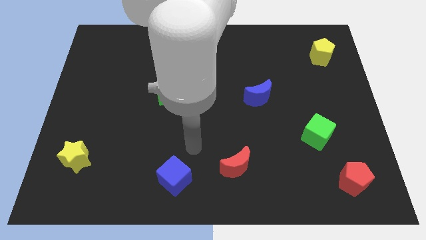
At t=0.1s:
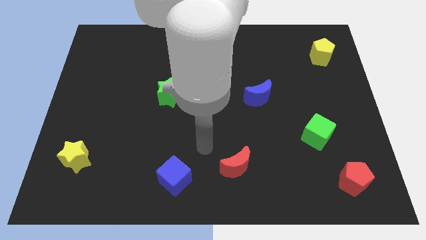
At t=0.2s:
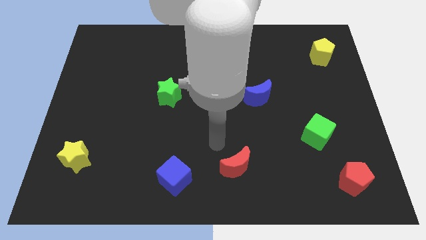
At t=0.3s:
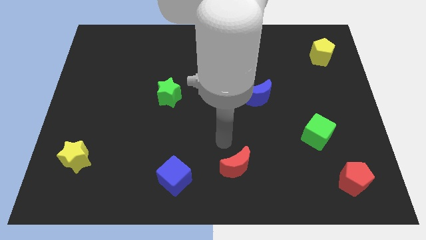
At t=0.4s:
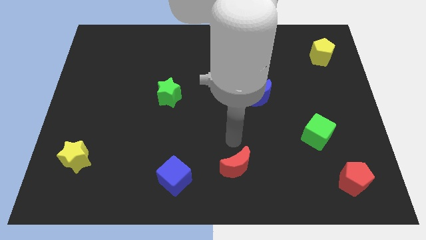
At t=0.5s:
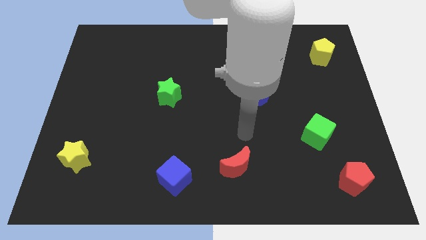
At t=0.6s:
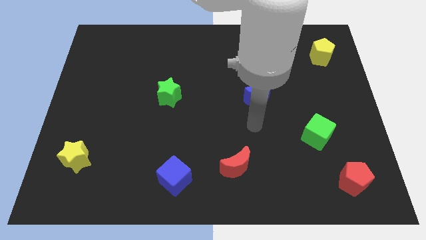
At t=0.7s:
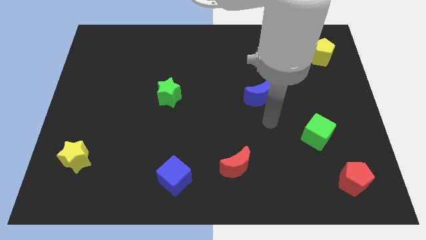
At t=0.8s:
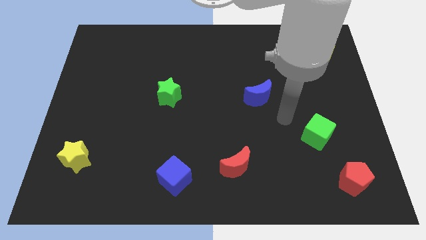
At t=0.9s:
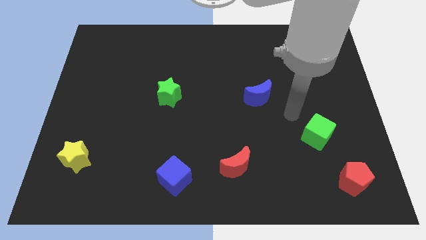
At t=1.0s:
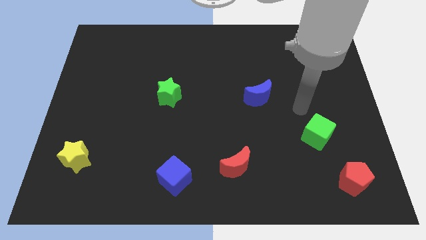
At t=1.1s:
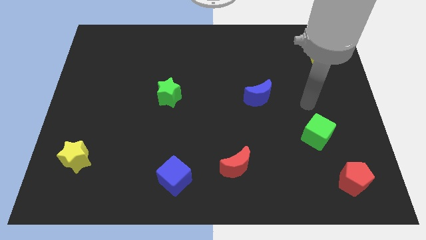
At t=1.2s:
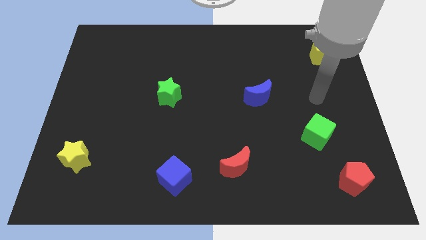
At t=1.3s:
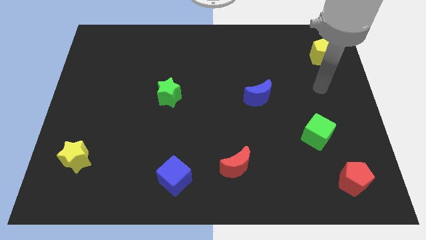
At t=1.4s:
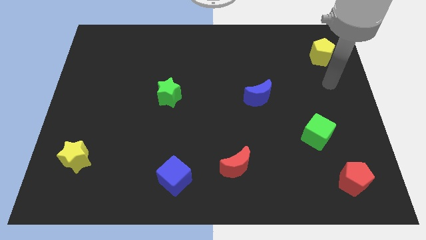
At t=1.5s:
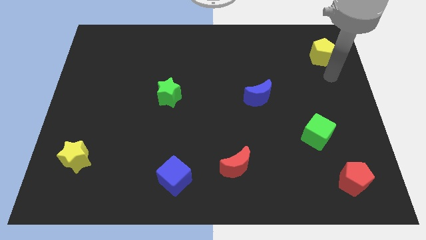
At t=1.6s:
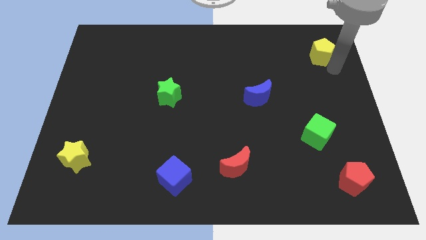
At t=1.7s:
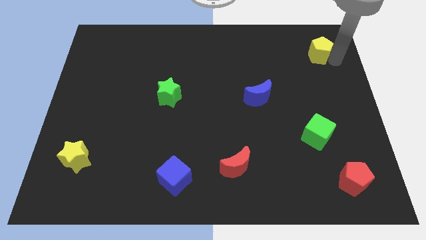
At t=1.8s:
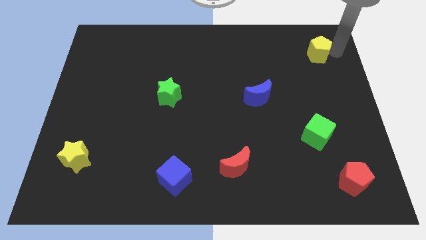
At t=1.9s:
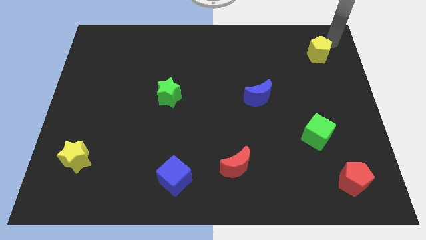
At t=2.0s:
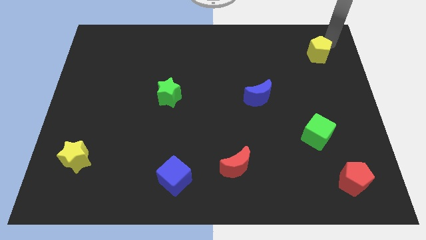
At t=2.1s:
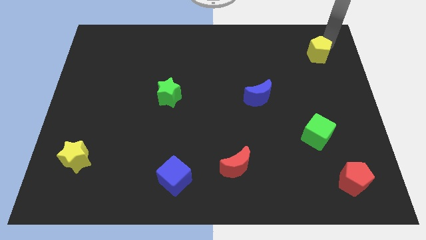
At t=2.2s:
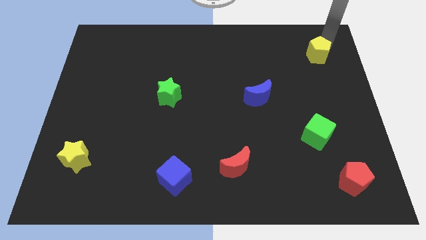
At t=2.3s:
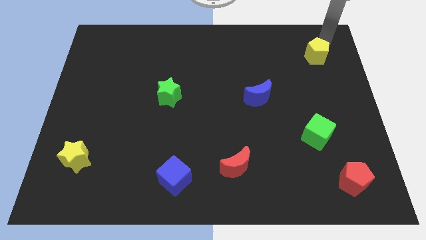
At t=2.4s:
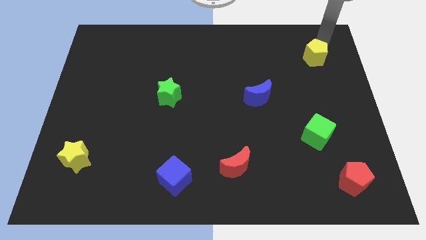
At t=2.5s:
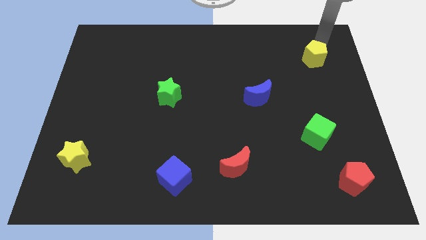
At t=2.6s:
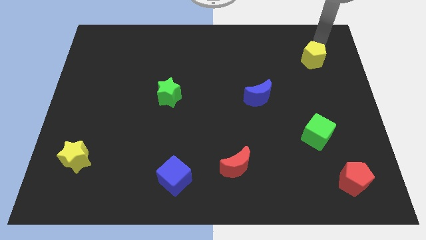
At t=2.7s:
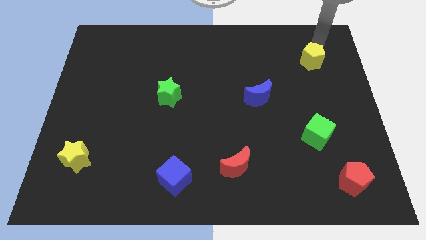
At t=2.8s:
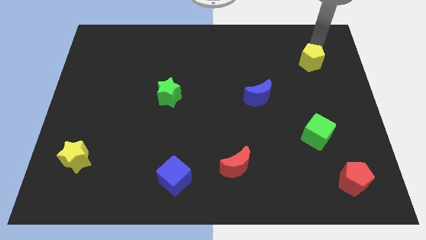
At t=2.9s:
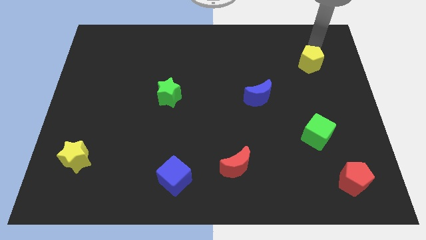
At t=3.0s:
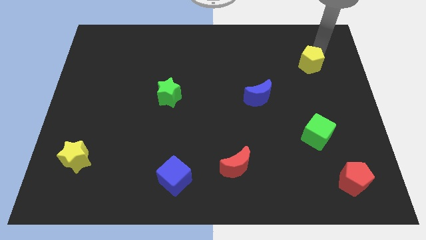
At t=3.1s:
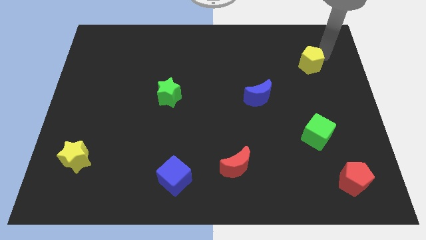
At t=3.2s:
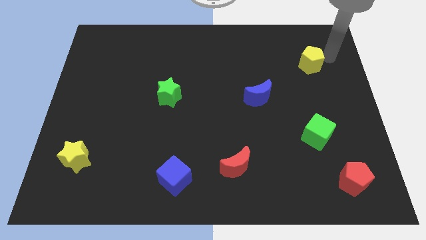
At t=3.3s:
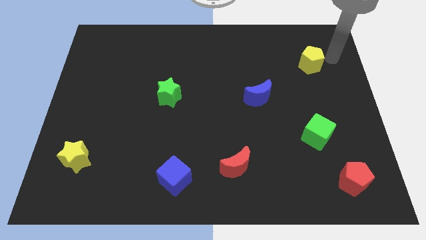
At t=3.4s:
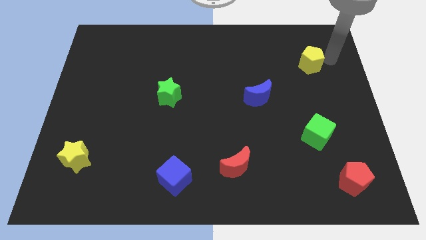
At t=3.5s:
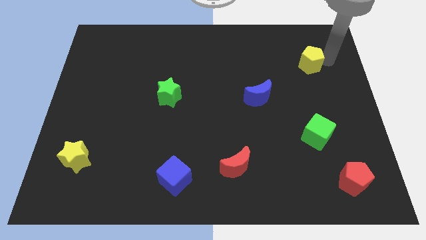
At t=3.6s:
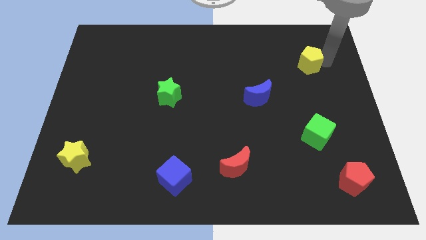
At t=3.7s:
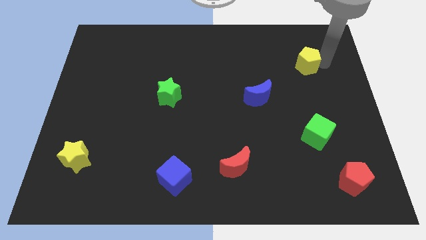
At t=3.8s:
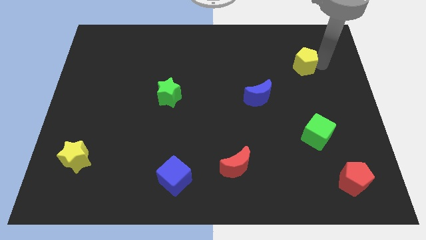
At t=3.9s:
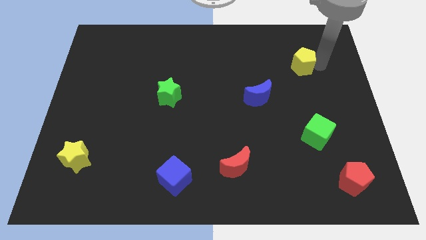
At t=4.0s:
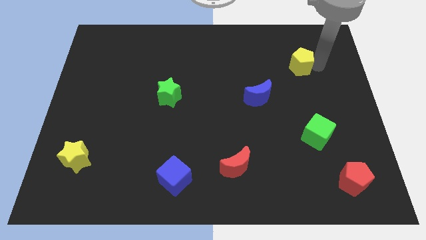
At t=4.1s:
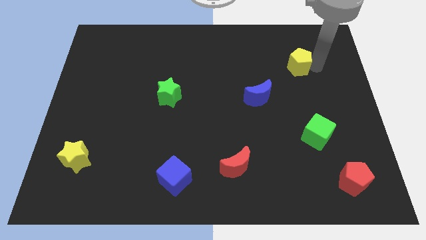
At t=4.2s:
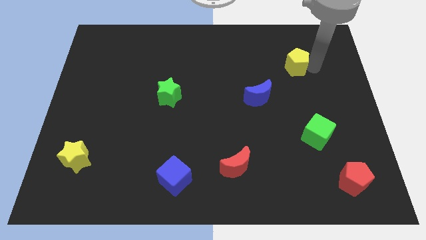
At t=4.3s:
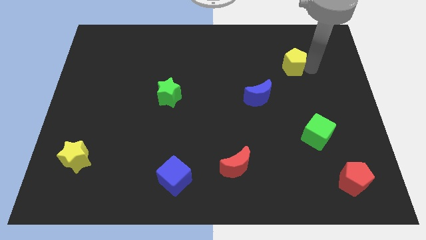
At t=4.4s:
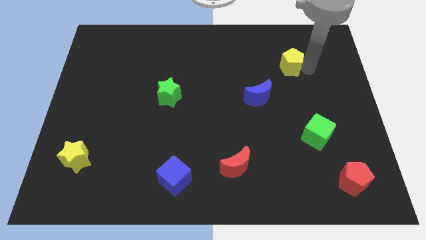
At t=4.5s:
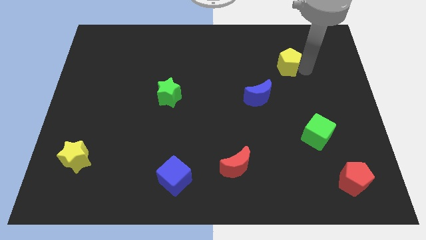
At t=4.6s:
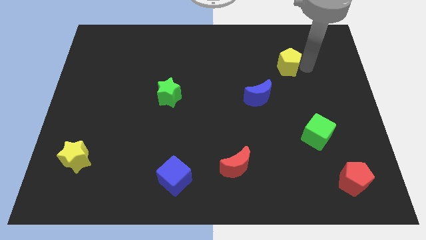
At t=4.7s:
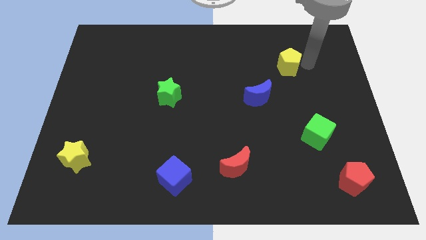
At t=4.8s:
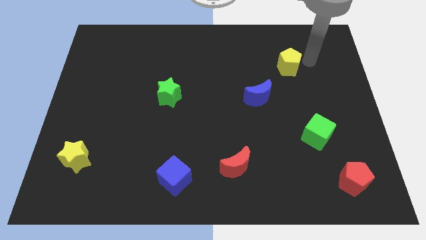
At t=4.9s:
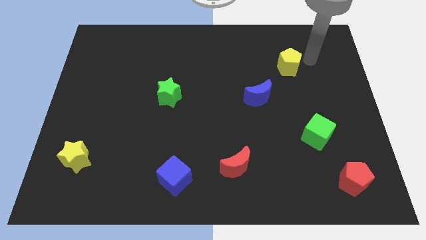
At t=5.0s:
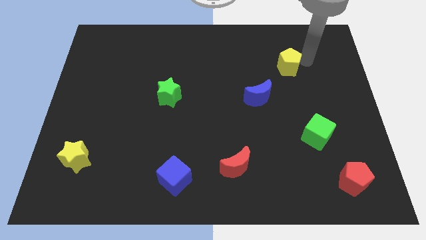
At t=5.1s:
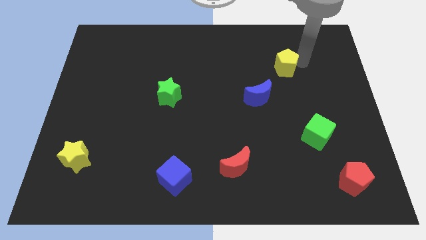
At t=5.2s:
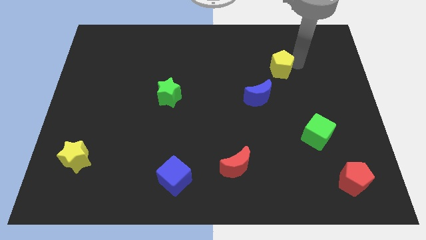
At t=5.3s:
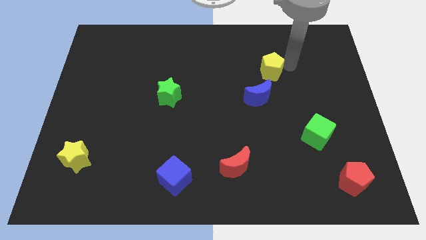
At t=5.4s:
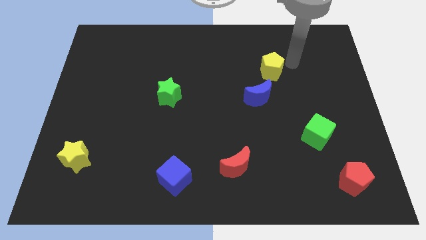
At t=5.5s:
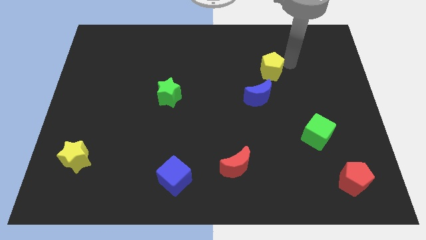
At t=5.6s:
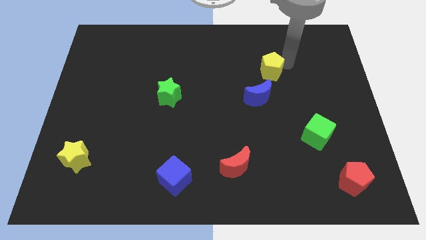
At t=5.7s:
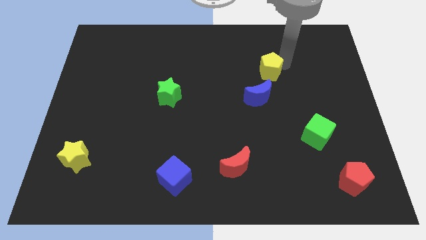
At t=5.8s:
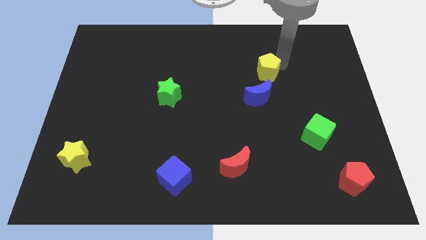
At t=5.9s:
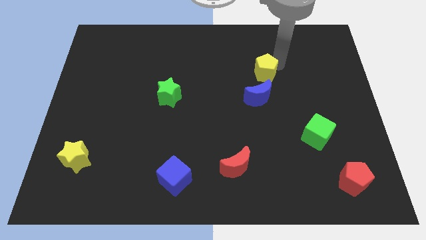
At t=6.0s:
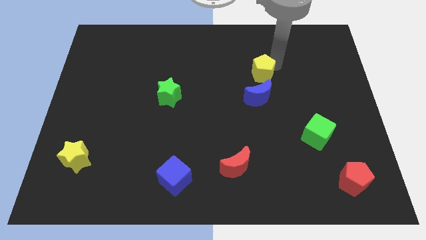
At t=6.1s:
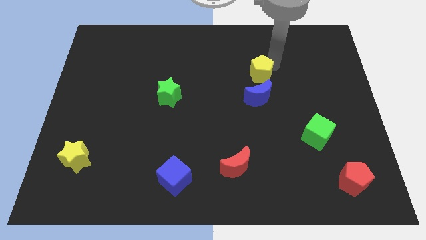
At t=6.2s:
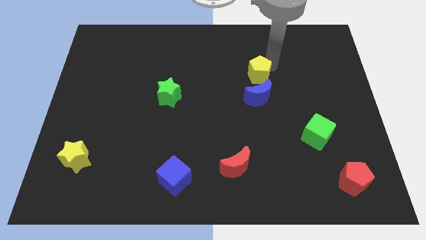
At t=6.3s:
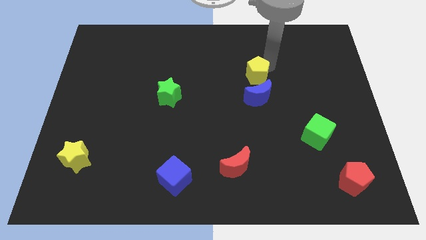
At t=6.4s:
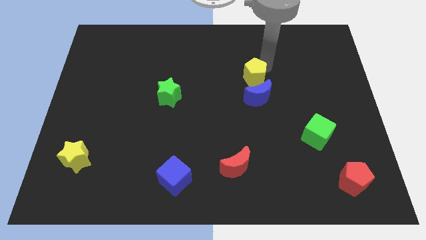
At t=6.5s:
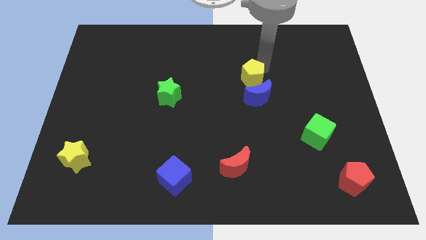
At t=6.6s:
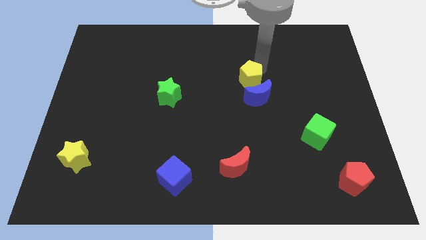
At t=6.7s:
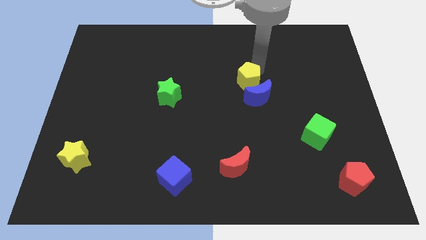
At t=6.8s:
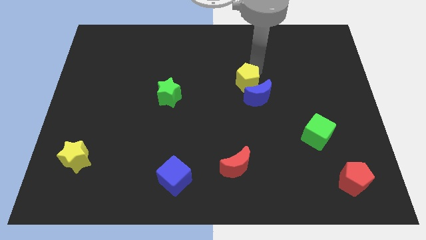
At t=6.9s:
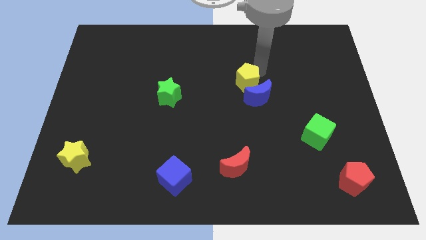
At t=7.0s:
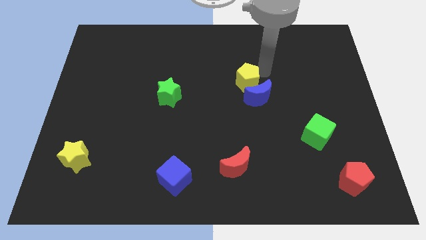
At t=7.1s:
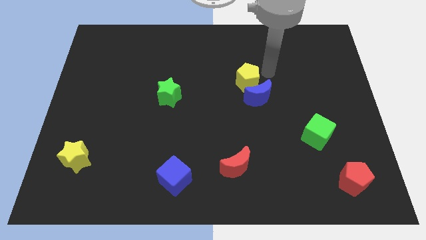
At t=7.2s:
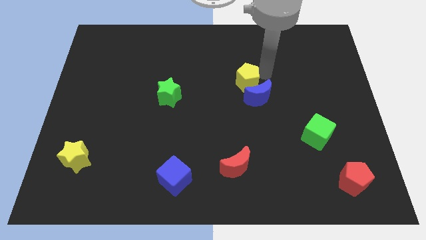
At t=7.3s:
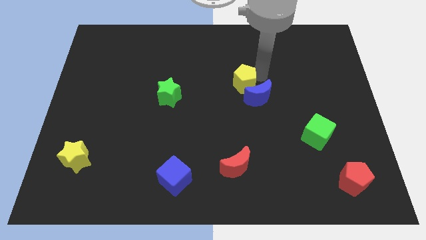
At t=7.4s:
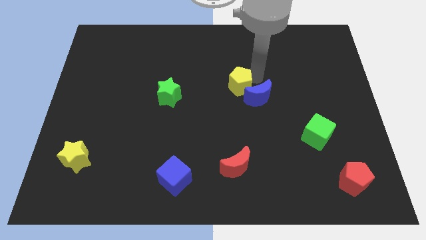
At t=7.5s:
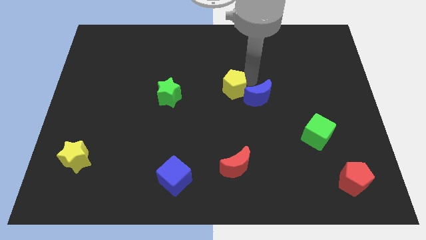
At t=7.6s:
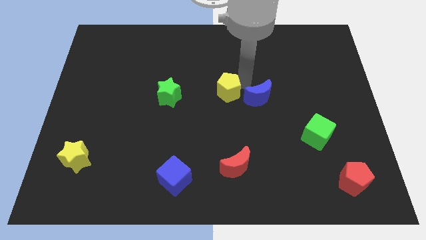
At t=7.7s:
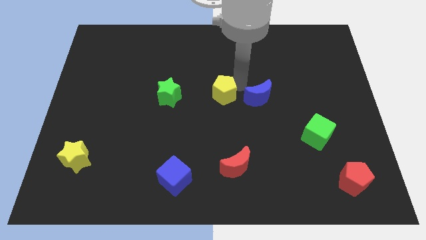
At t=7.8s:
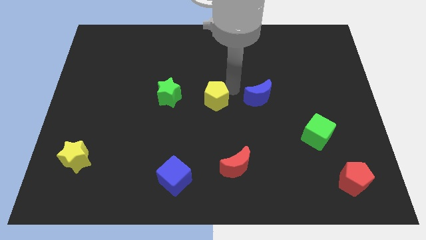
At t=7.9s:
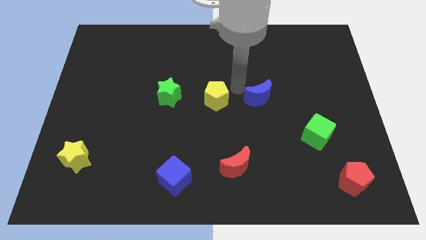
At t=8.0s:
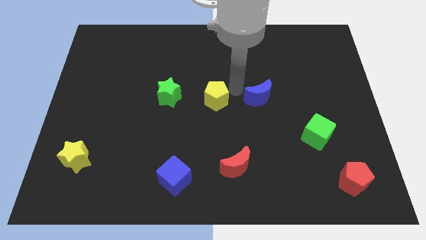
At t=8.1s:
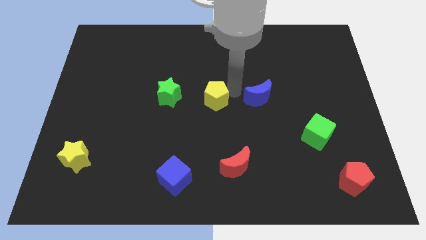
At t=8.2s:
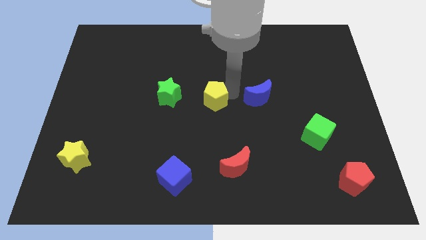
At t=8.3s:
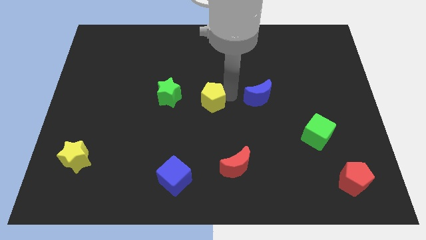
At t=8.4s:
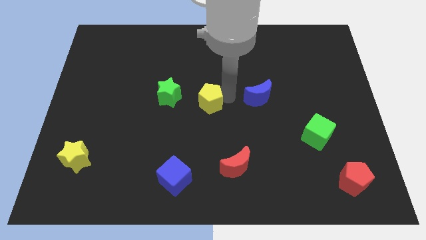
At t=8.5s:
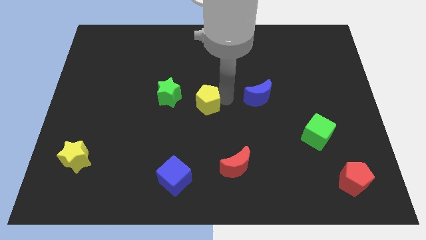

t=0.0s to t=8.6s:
push the yellow pentagon to the bottom right of the green star
